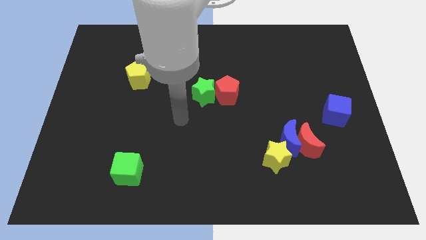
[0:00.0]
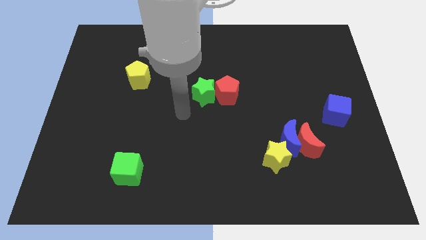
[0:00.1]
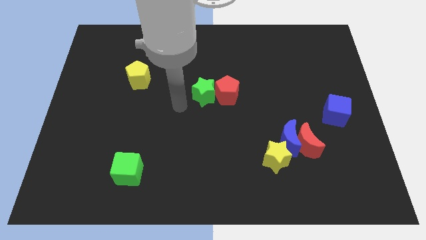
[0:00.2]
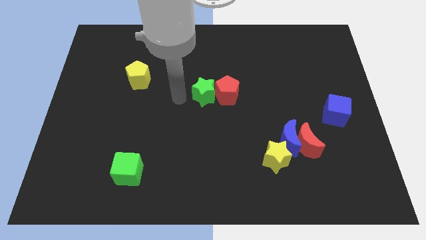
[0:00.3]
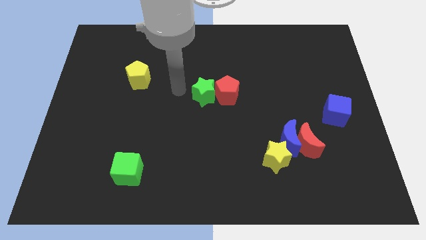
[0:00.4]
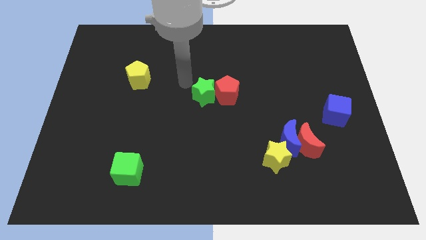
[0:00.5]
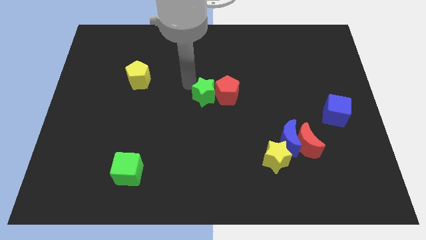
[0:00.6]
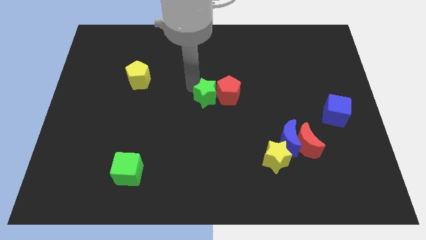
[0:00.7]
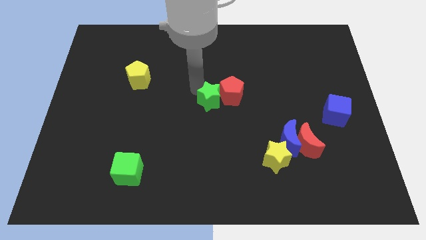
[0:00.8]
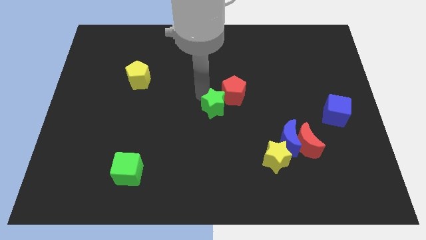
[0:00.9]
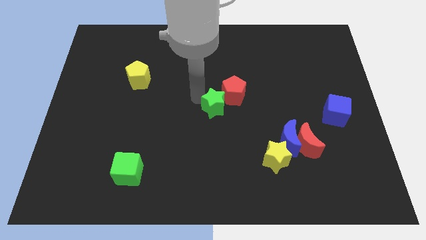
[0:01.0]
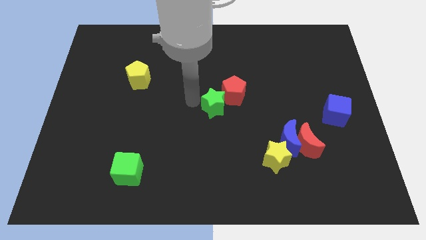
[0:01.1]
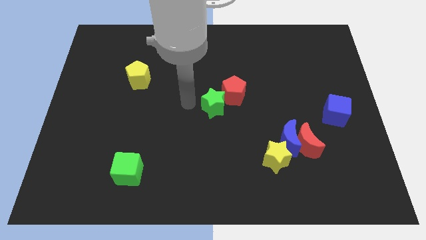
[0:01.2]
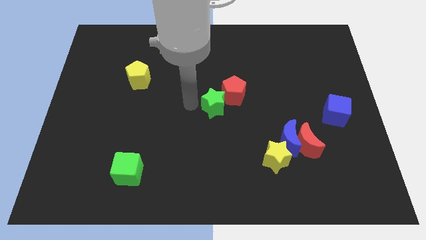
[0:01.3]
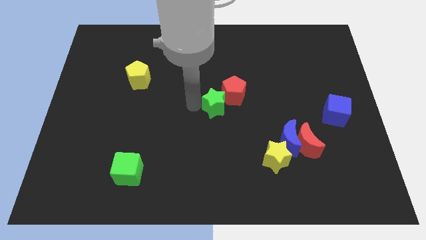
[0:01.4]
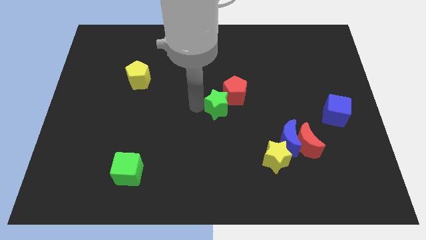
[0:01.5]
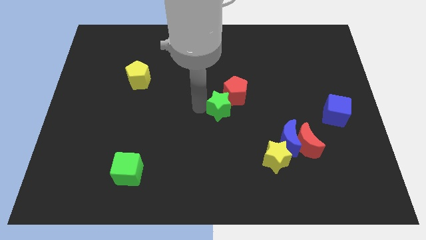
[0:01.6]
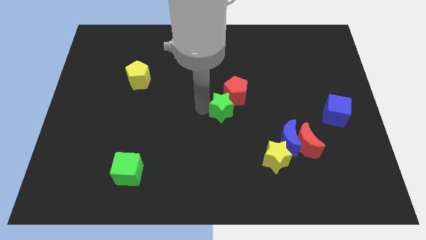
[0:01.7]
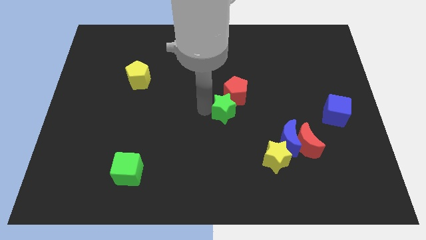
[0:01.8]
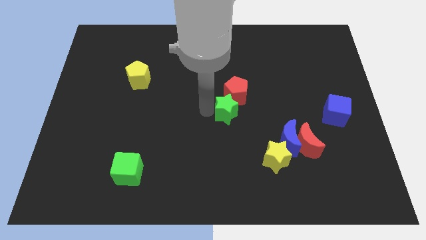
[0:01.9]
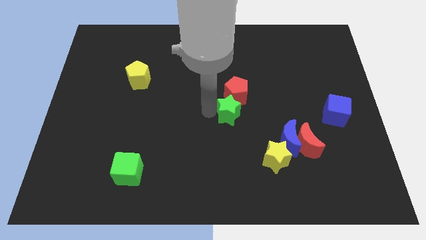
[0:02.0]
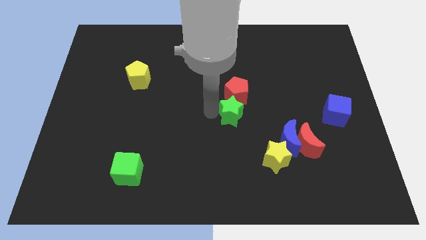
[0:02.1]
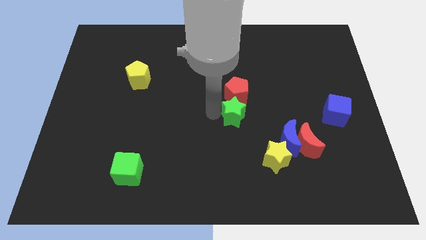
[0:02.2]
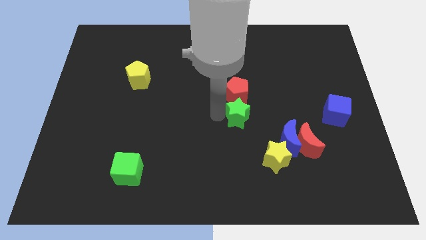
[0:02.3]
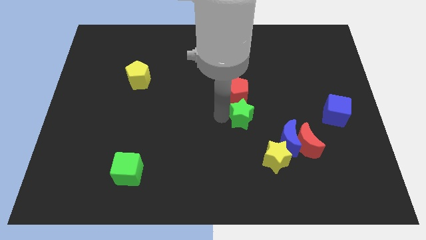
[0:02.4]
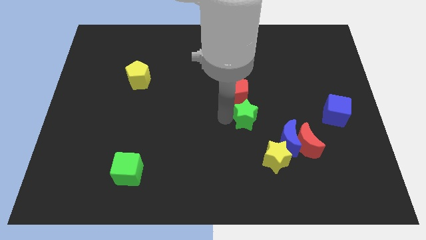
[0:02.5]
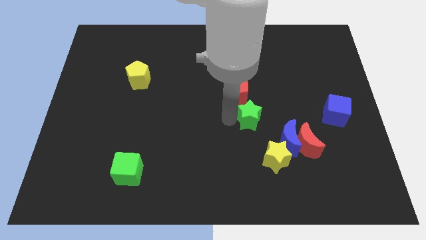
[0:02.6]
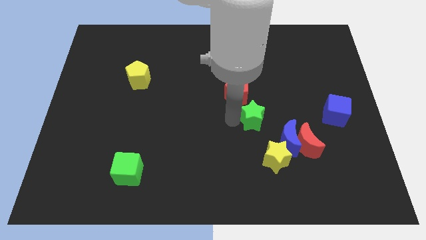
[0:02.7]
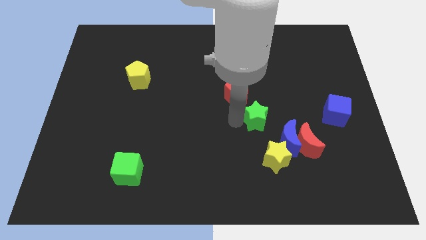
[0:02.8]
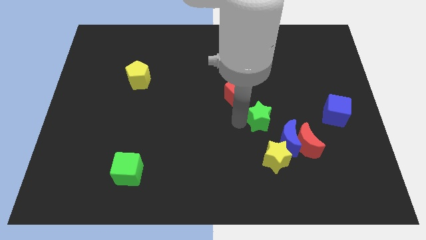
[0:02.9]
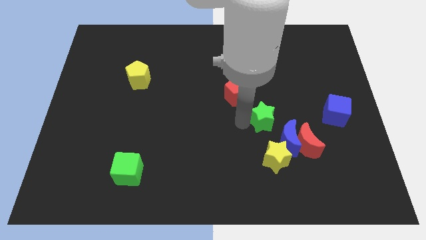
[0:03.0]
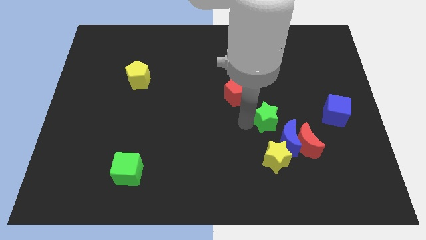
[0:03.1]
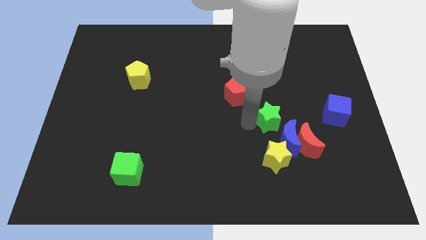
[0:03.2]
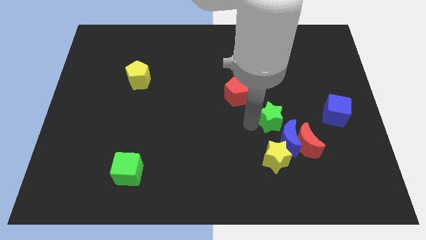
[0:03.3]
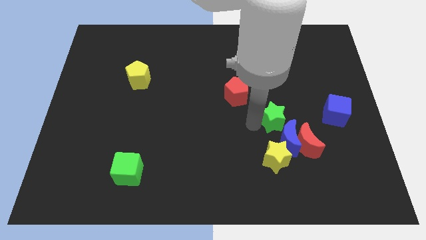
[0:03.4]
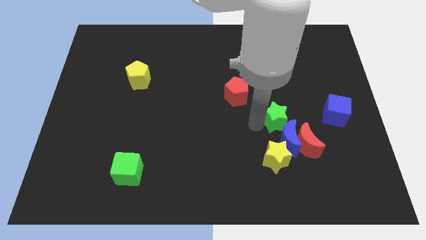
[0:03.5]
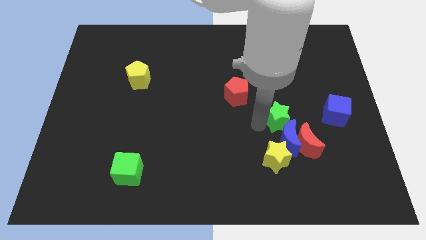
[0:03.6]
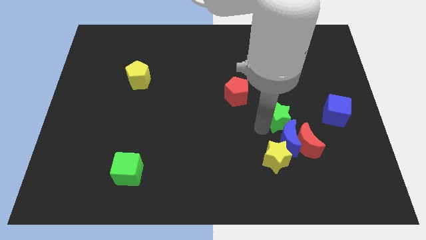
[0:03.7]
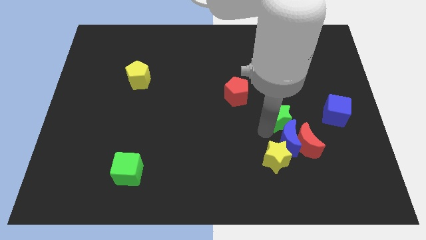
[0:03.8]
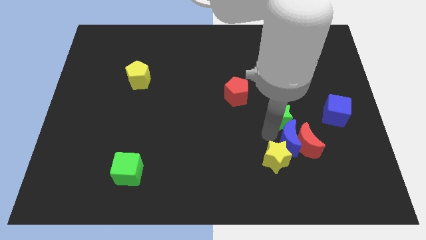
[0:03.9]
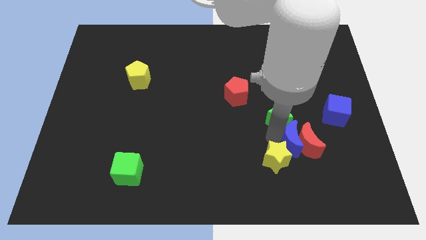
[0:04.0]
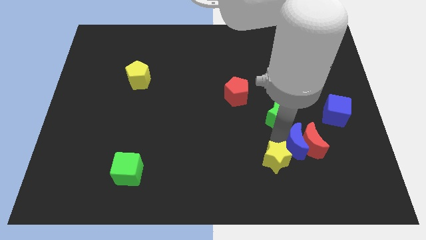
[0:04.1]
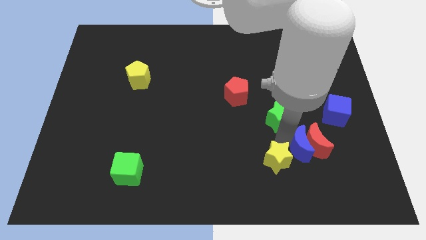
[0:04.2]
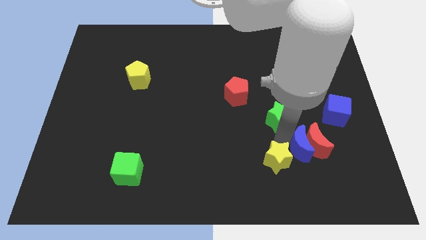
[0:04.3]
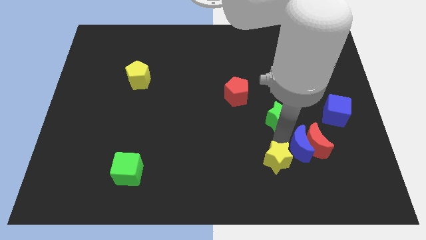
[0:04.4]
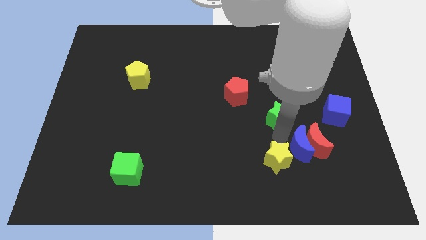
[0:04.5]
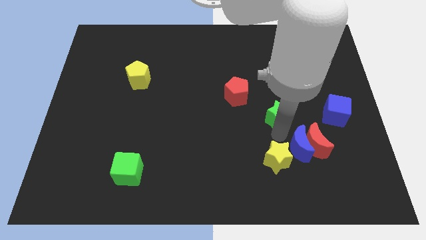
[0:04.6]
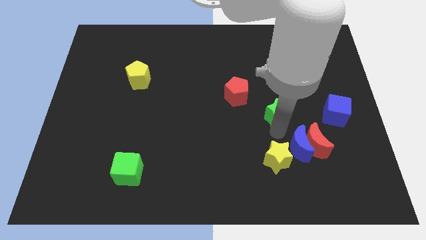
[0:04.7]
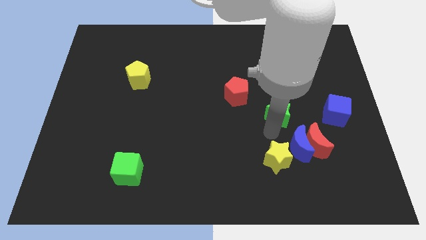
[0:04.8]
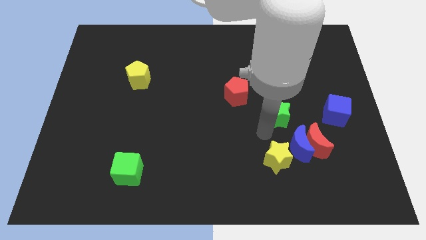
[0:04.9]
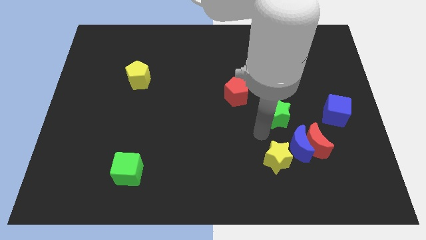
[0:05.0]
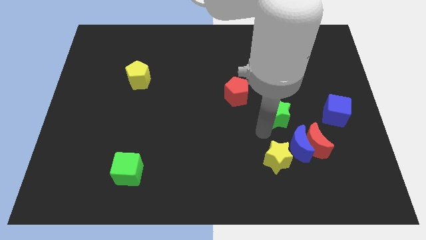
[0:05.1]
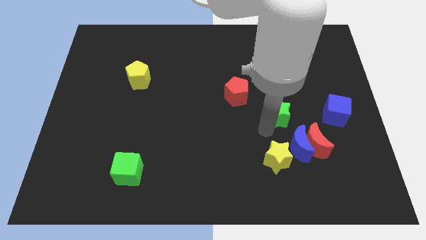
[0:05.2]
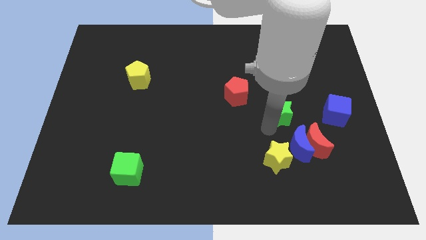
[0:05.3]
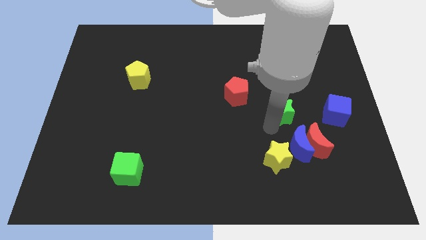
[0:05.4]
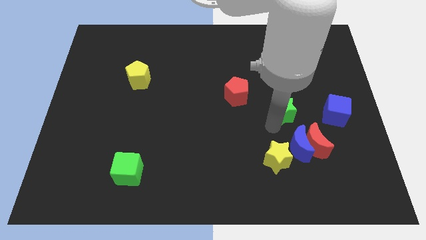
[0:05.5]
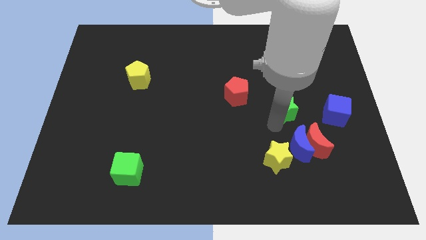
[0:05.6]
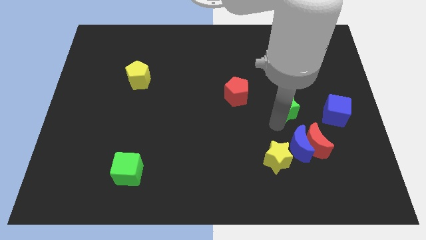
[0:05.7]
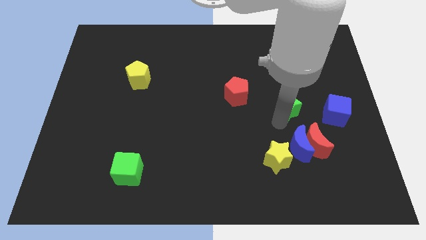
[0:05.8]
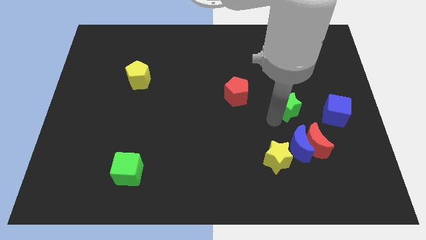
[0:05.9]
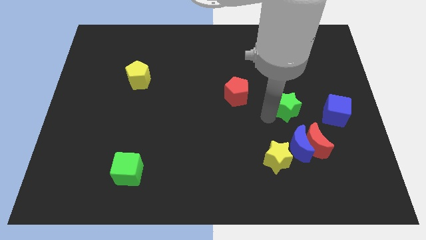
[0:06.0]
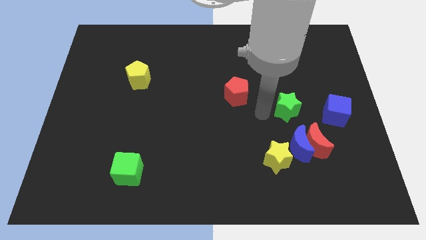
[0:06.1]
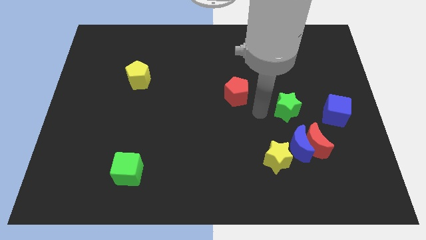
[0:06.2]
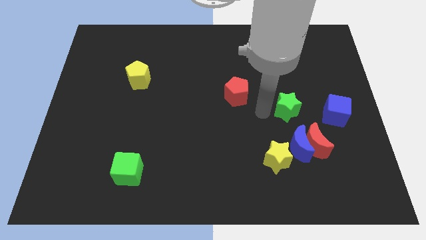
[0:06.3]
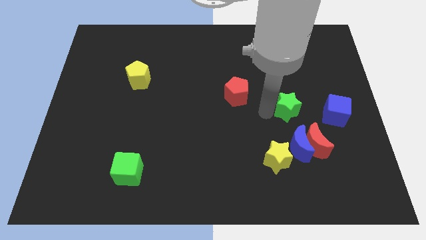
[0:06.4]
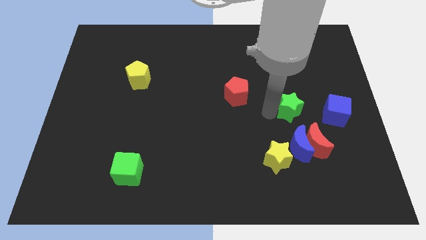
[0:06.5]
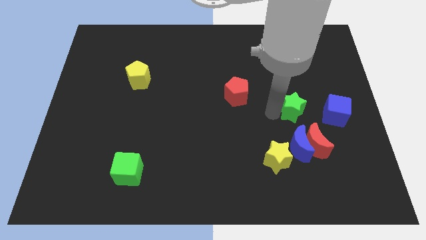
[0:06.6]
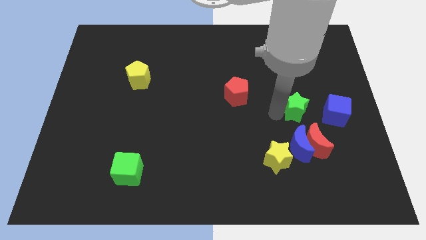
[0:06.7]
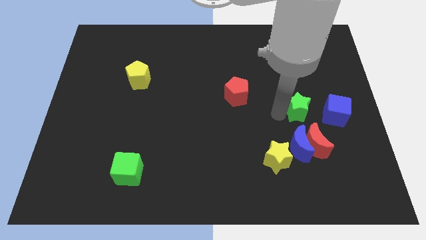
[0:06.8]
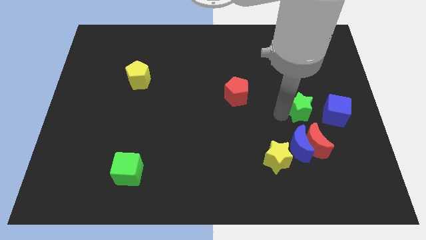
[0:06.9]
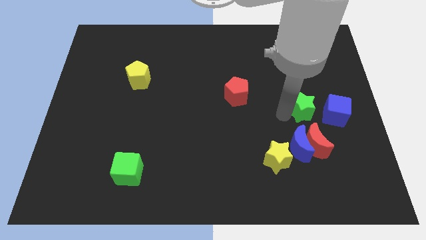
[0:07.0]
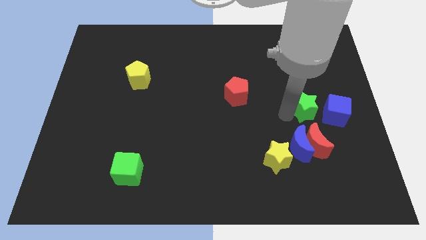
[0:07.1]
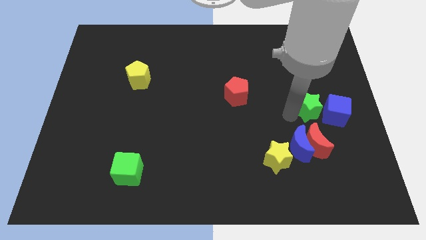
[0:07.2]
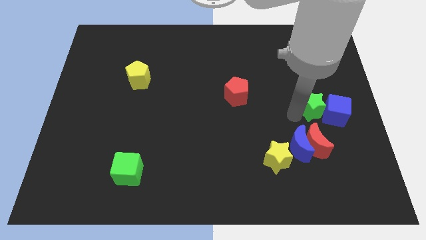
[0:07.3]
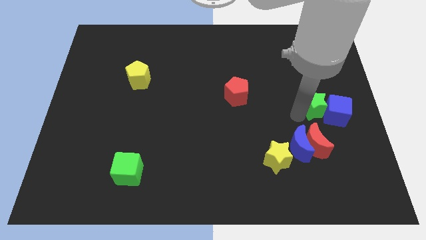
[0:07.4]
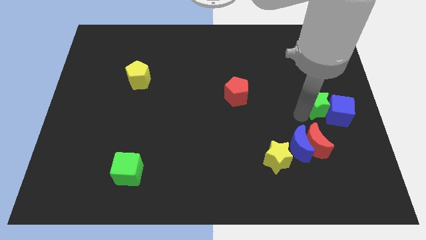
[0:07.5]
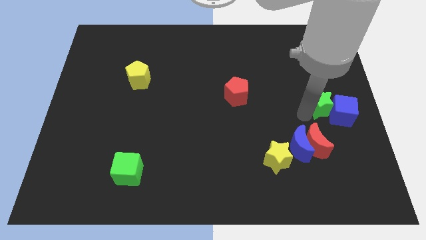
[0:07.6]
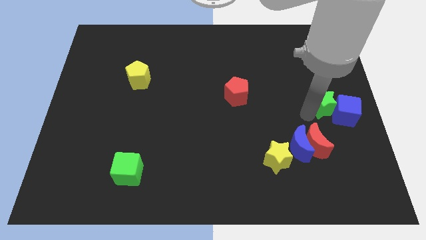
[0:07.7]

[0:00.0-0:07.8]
move the green star to the center right
